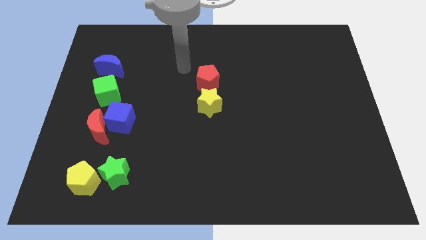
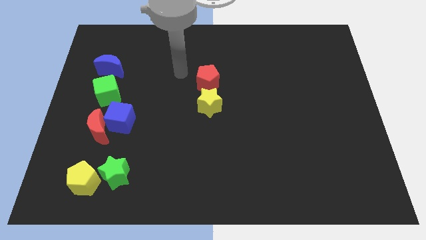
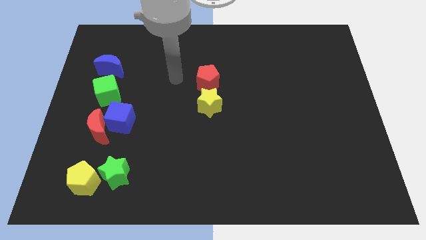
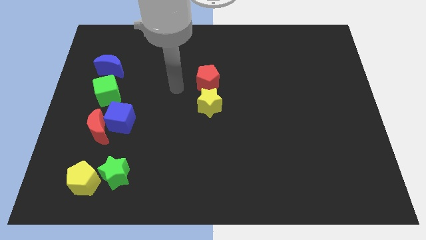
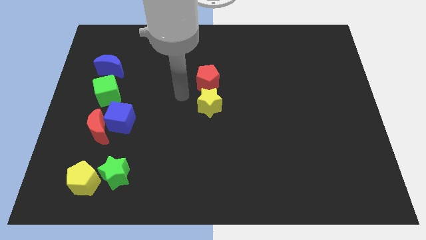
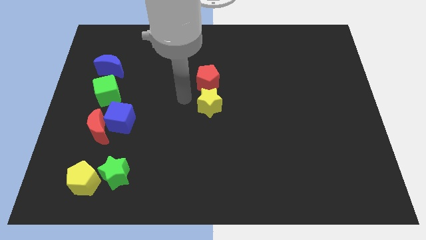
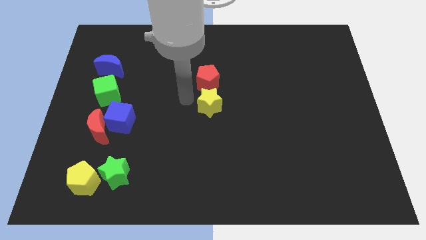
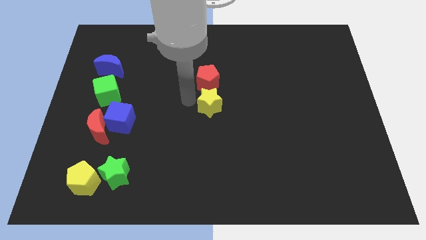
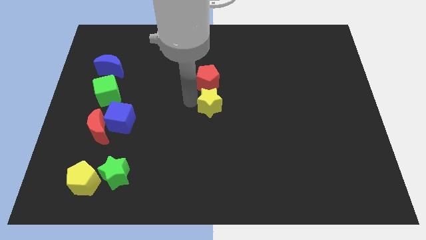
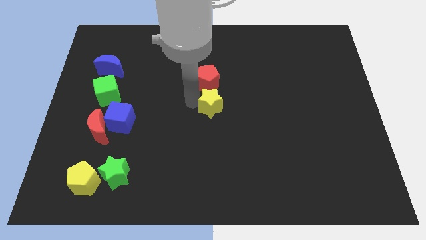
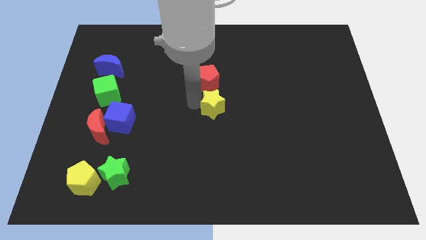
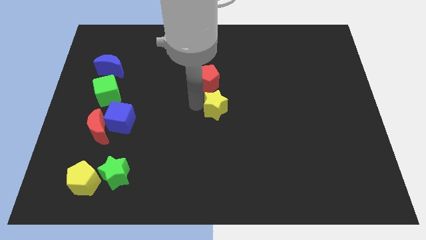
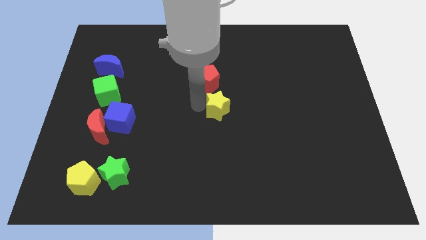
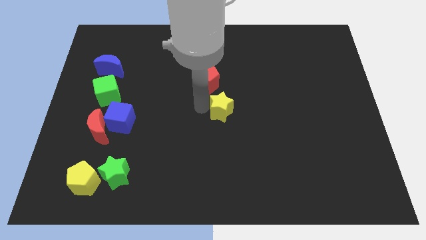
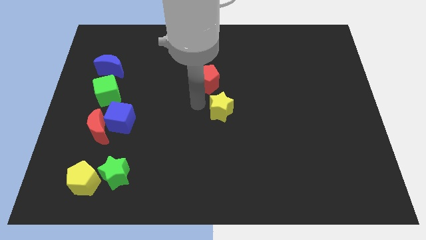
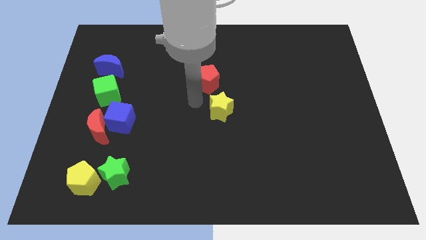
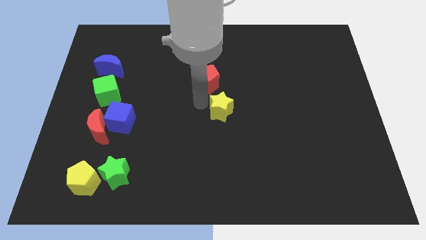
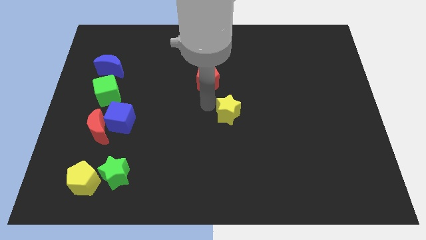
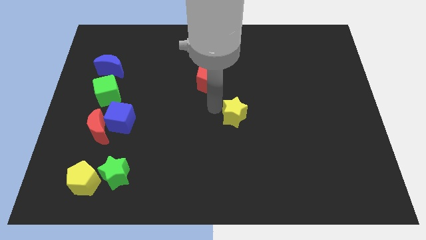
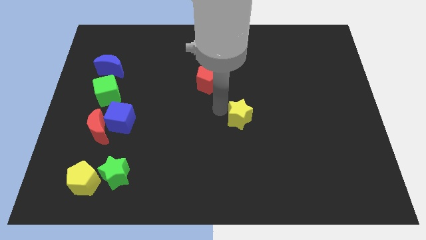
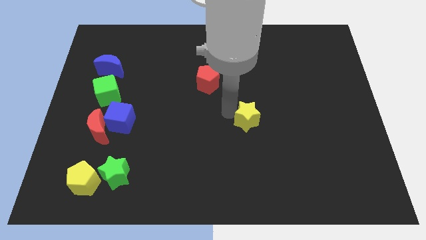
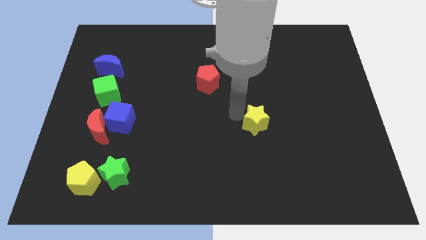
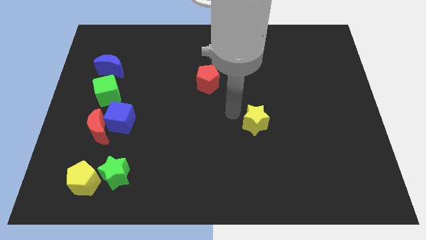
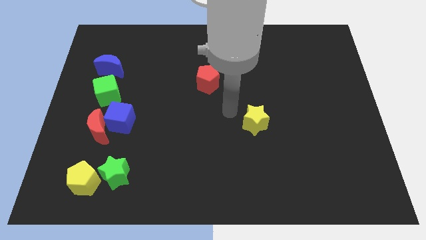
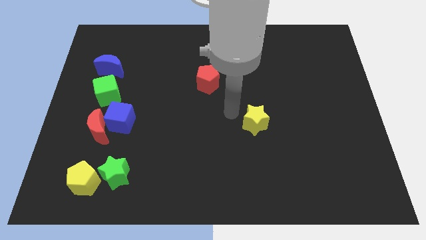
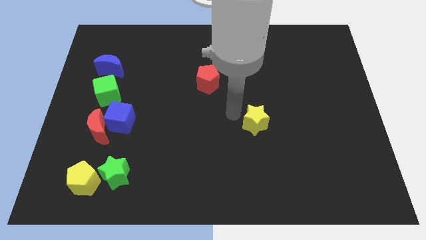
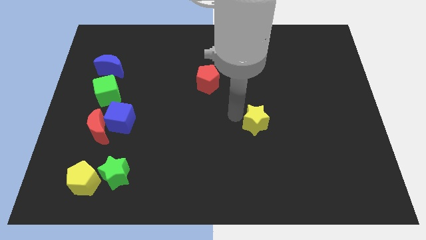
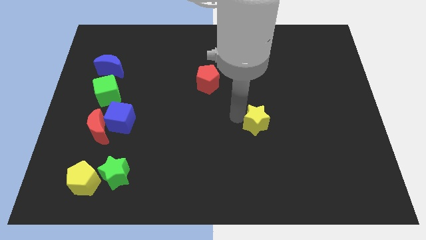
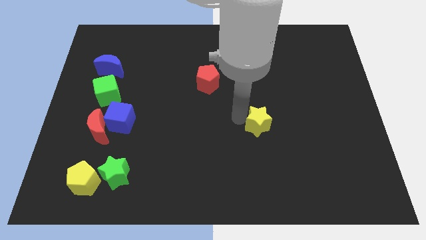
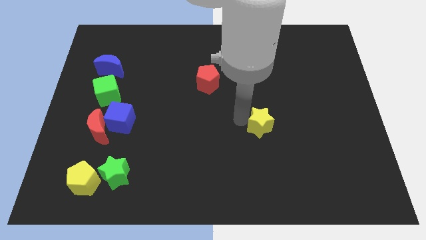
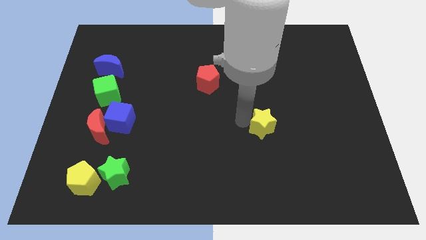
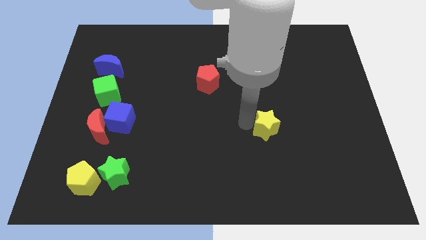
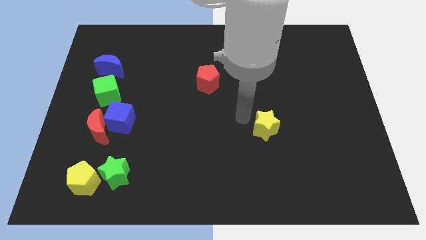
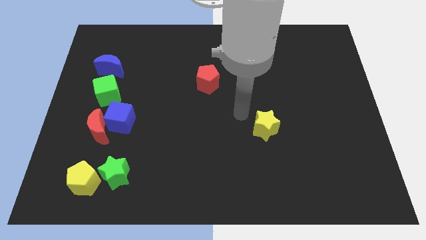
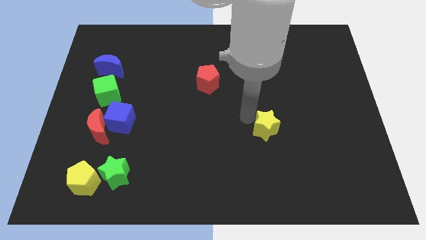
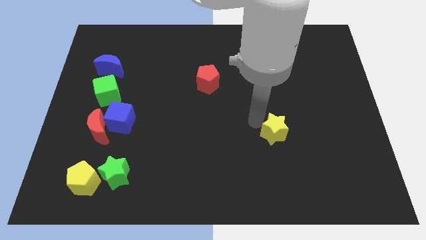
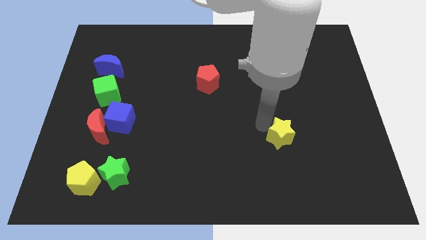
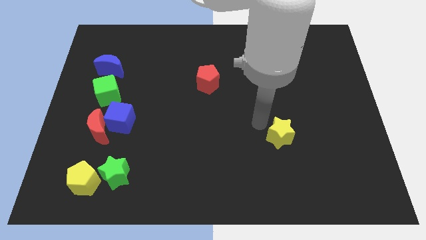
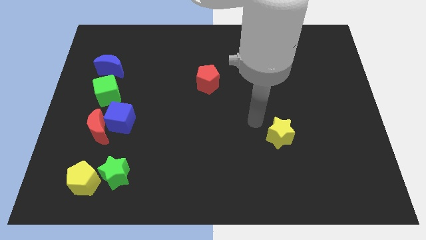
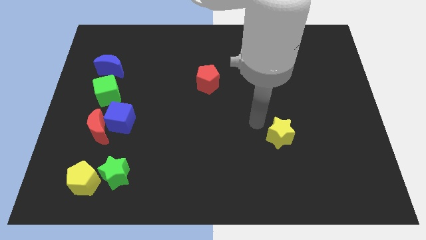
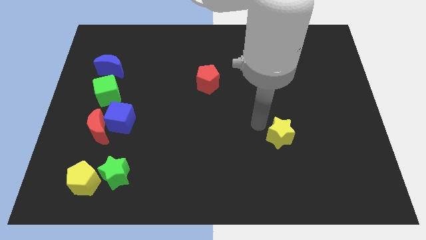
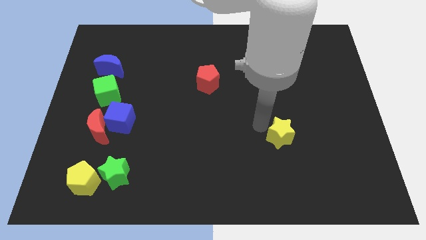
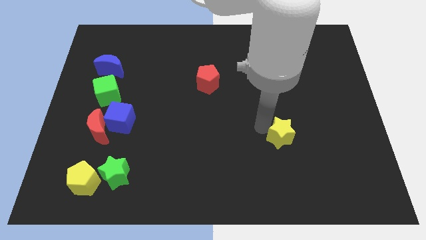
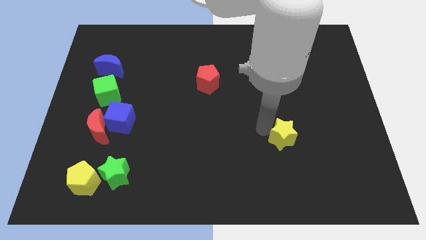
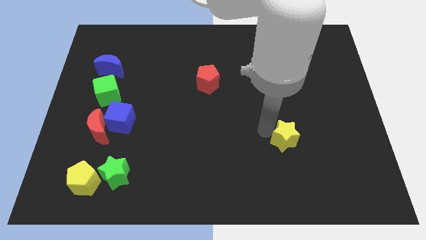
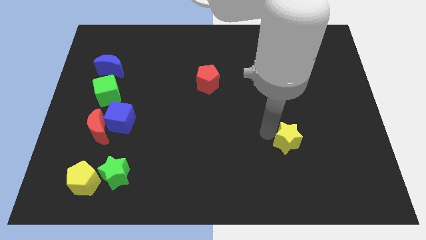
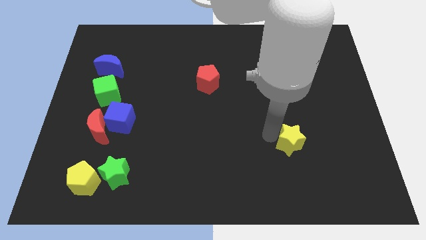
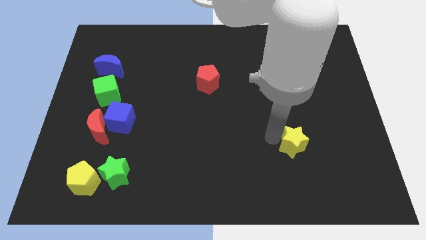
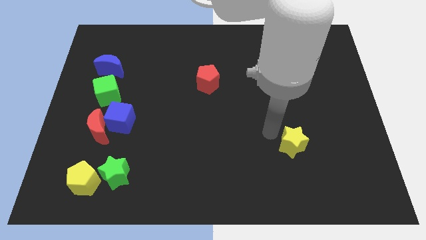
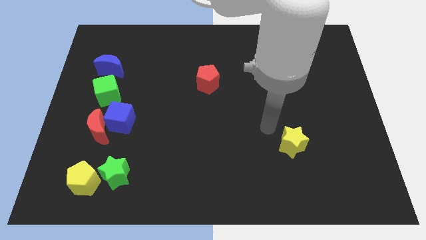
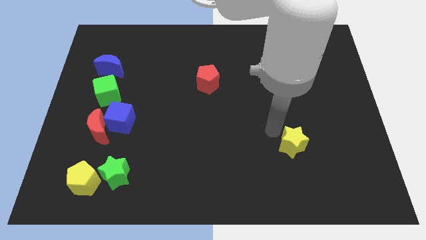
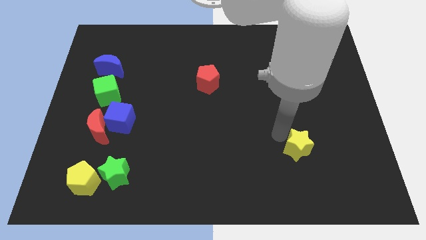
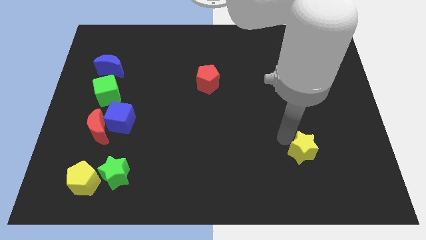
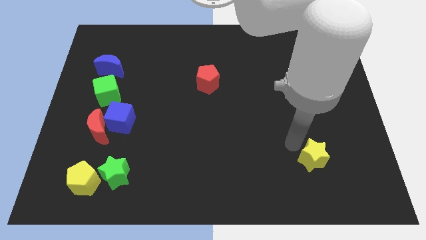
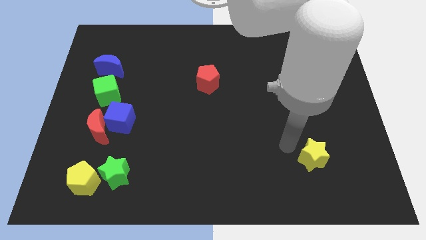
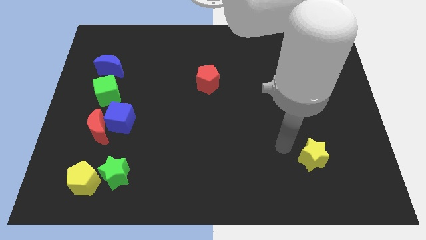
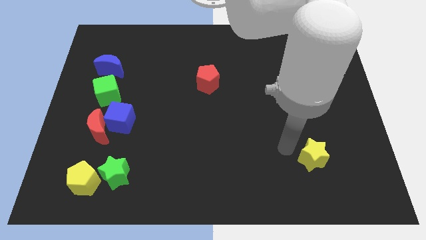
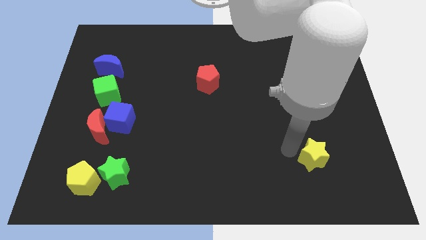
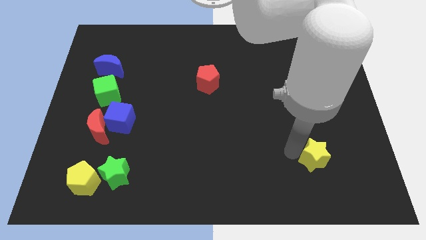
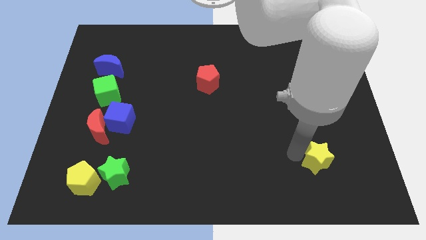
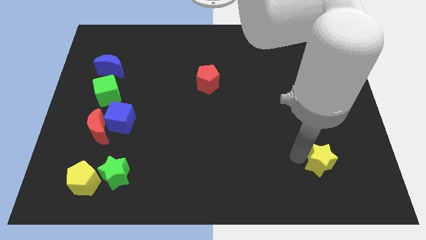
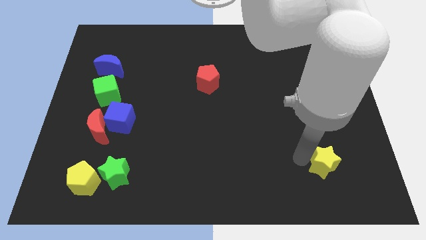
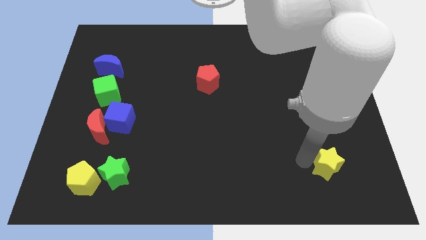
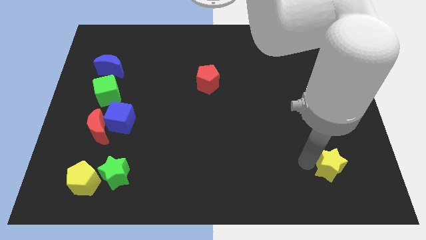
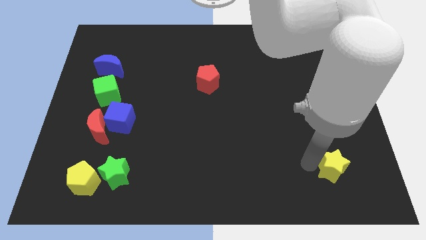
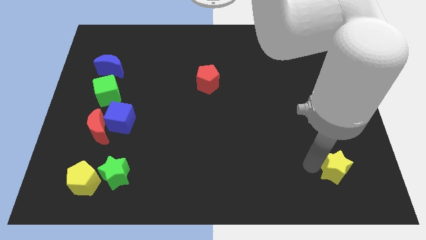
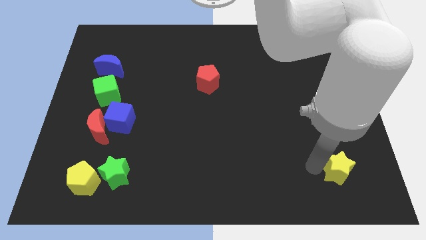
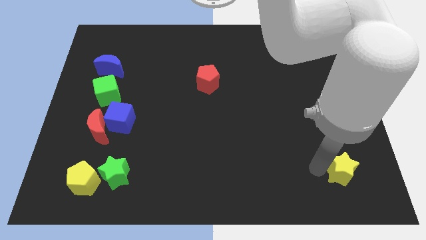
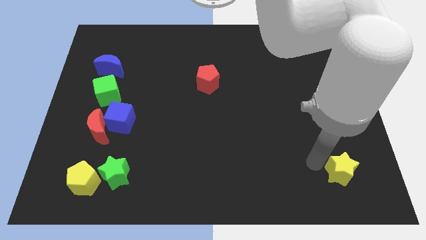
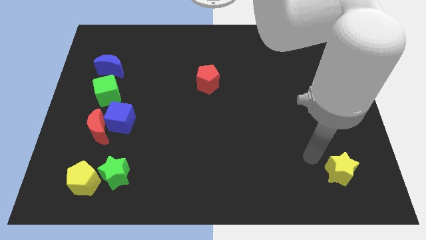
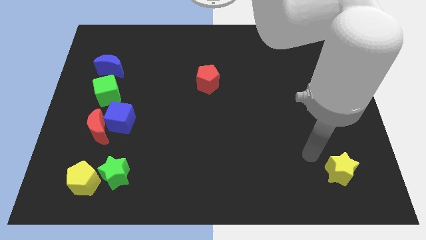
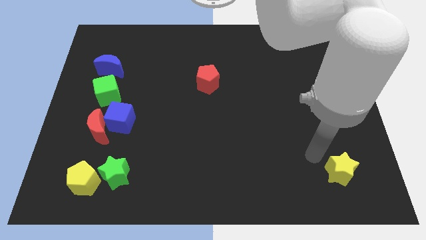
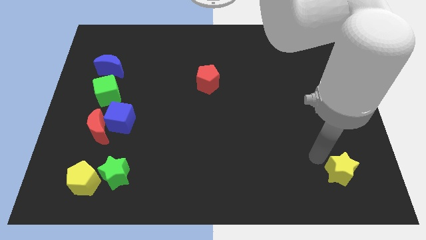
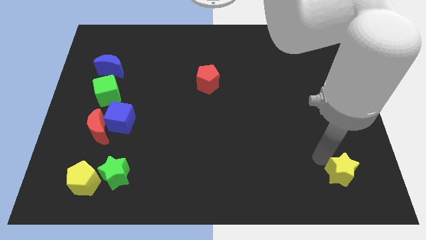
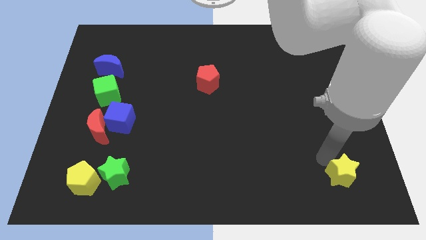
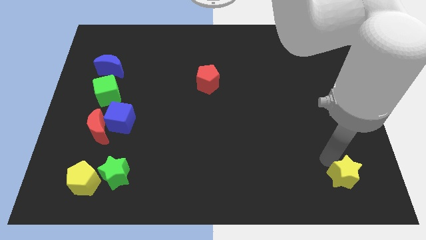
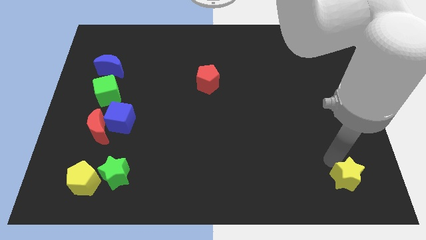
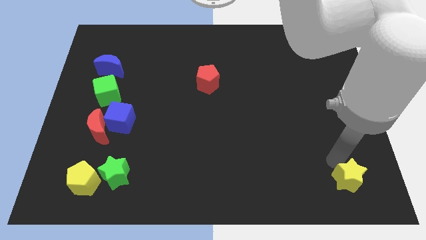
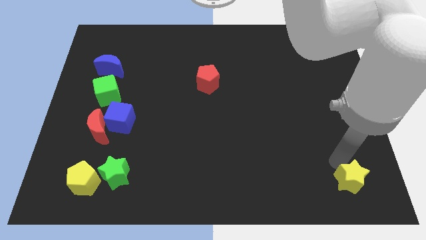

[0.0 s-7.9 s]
move the yellow star to the bottom right of the board
